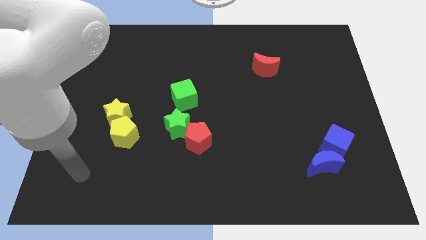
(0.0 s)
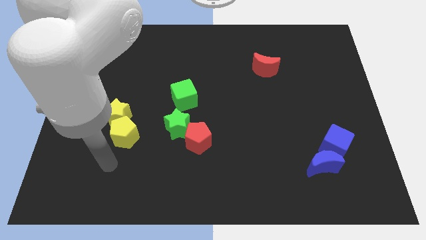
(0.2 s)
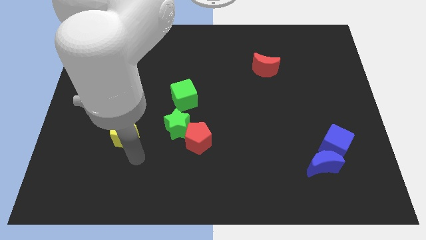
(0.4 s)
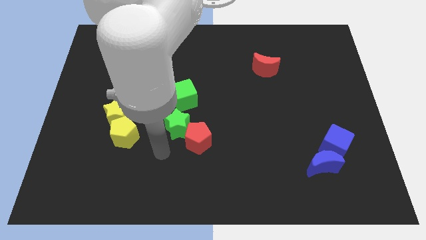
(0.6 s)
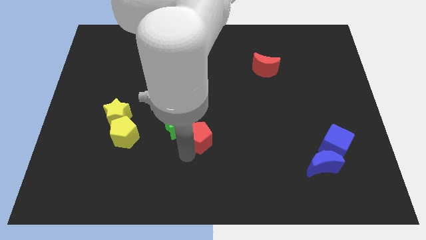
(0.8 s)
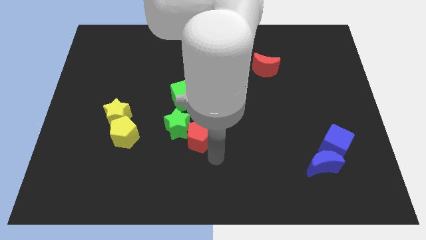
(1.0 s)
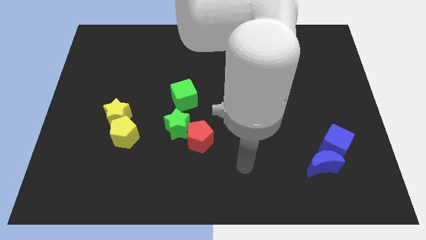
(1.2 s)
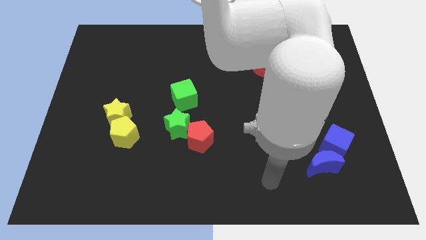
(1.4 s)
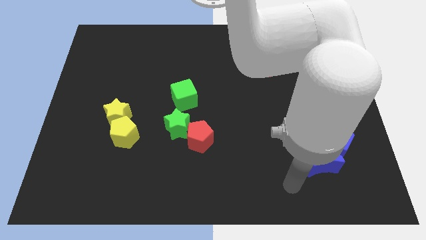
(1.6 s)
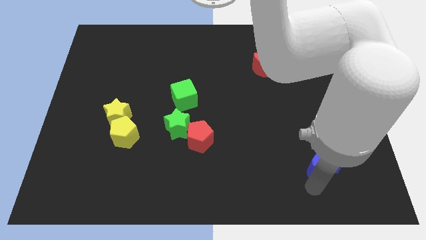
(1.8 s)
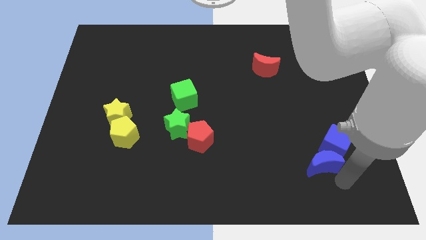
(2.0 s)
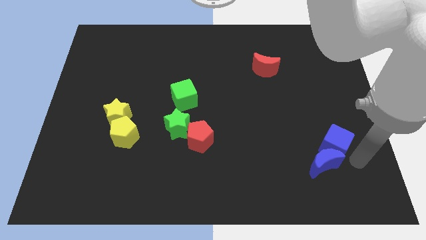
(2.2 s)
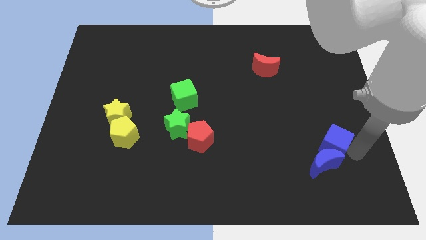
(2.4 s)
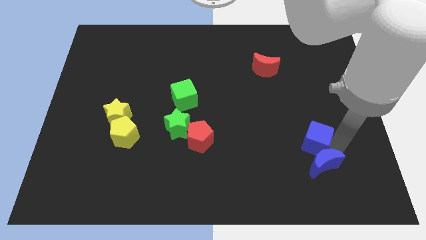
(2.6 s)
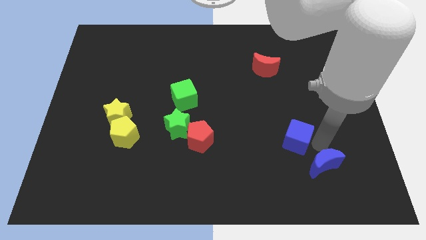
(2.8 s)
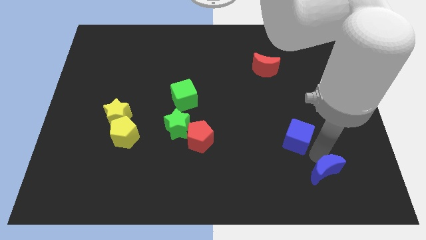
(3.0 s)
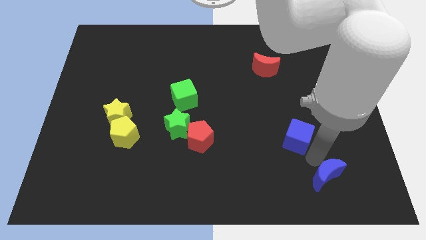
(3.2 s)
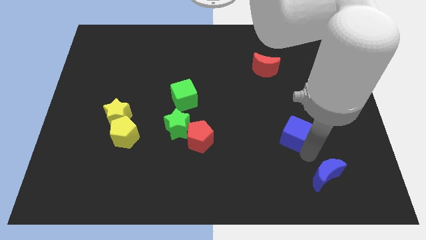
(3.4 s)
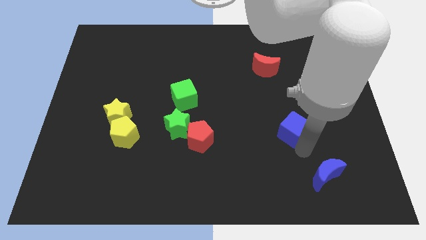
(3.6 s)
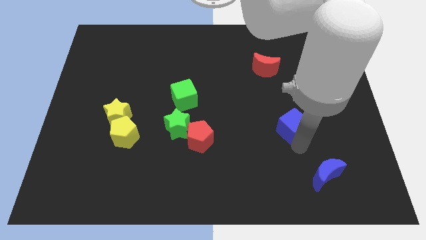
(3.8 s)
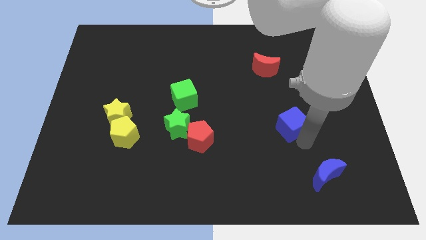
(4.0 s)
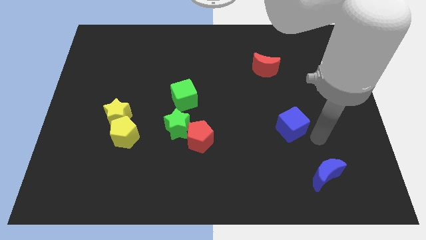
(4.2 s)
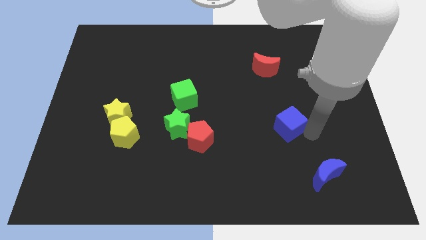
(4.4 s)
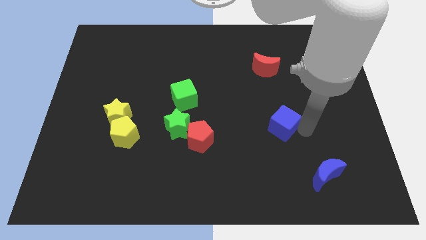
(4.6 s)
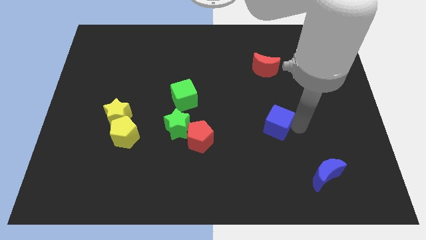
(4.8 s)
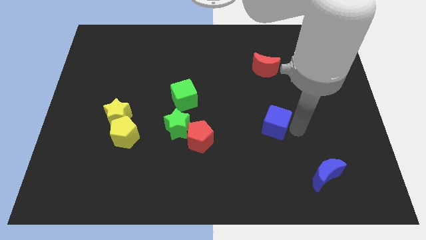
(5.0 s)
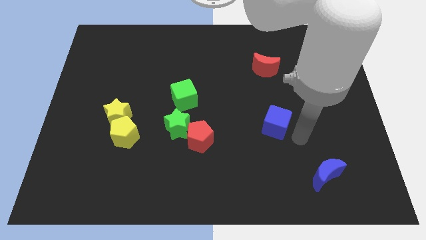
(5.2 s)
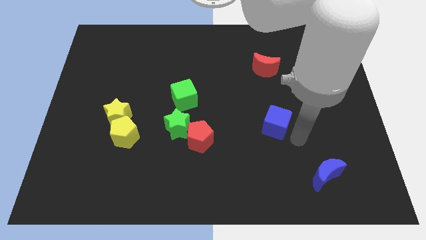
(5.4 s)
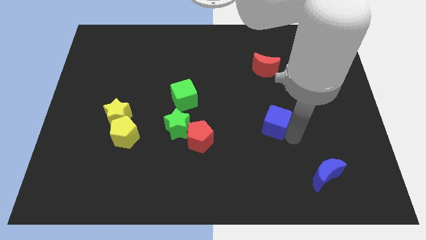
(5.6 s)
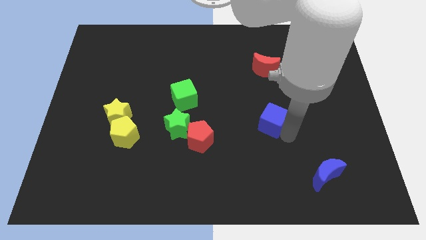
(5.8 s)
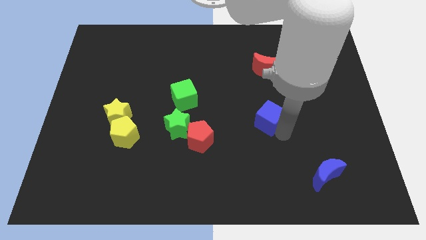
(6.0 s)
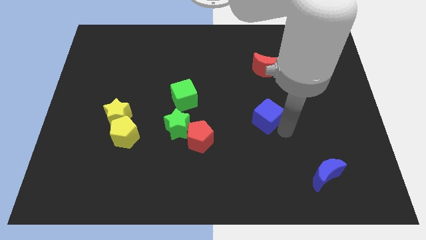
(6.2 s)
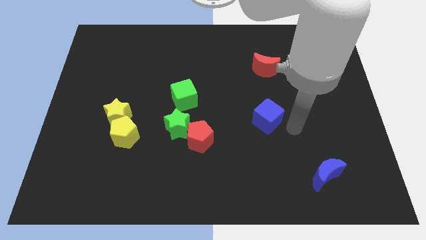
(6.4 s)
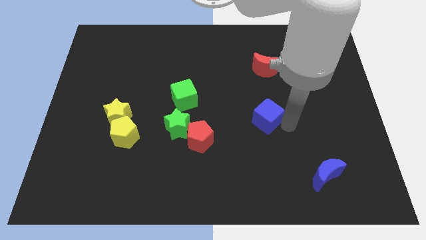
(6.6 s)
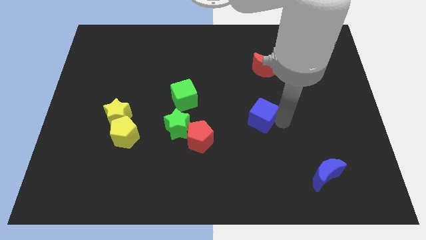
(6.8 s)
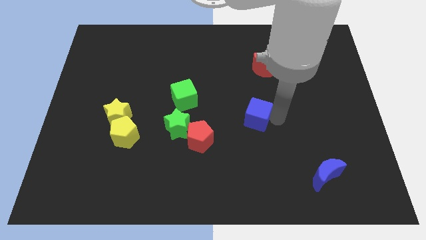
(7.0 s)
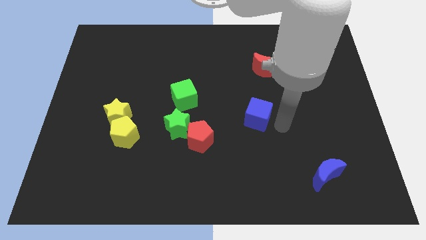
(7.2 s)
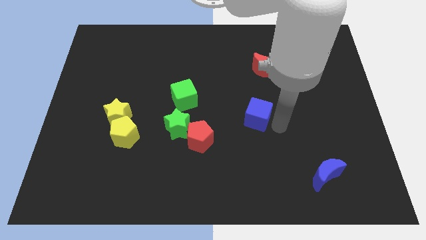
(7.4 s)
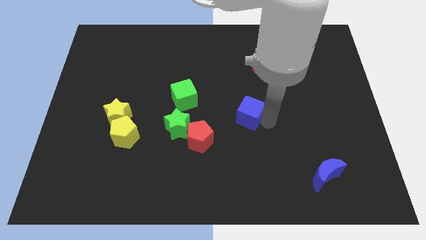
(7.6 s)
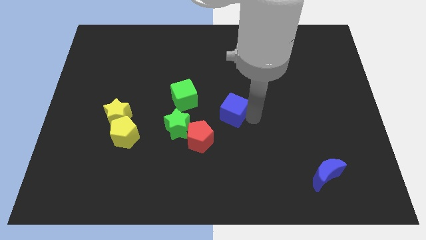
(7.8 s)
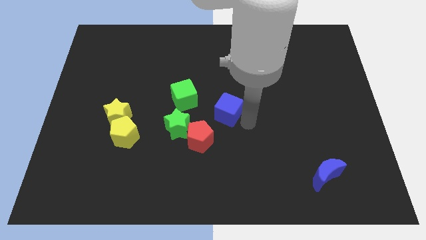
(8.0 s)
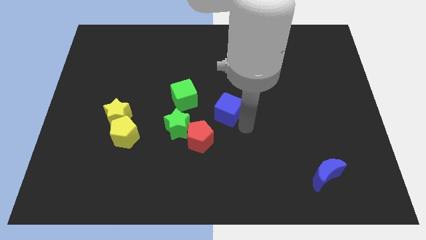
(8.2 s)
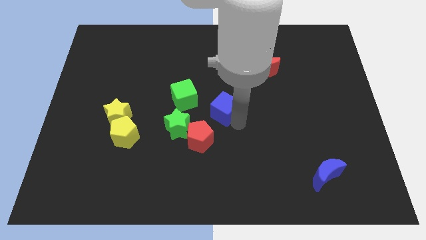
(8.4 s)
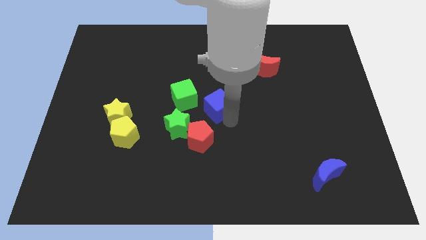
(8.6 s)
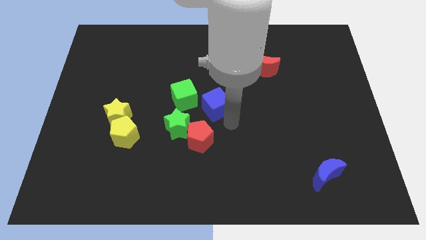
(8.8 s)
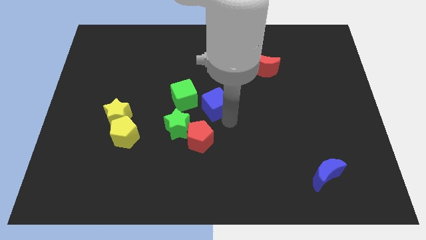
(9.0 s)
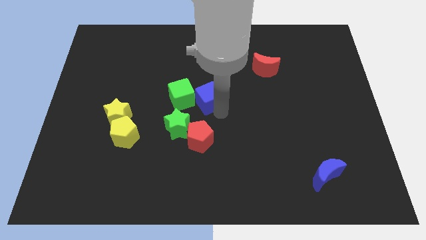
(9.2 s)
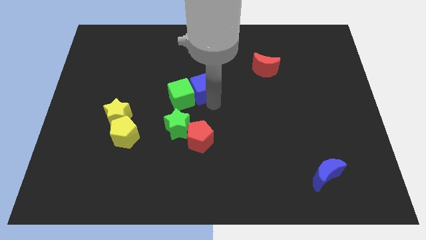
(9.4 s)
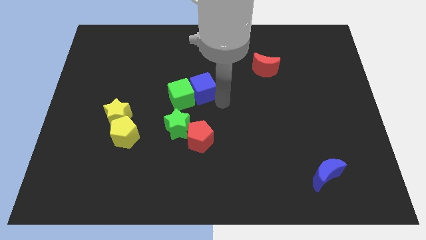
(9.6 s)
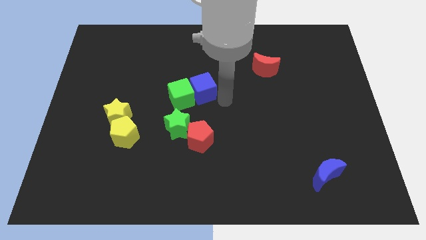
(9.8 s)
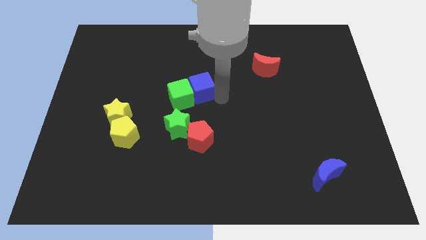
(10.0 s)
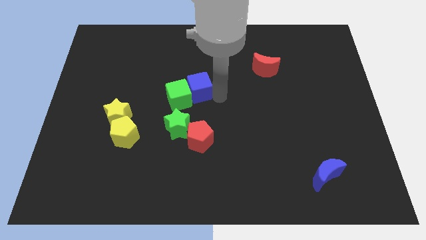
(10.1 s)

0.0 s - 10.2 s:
move the blue cube to the top of the green star

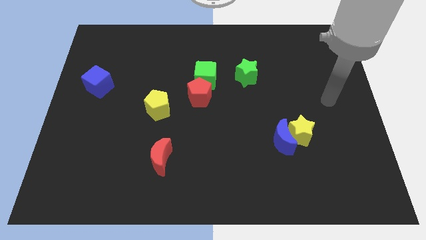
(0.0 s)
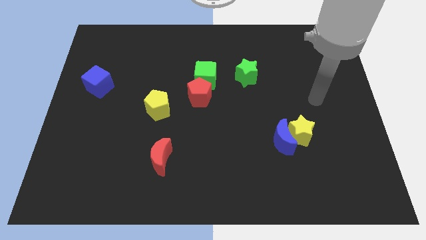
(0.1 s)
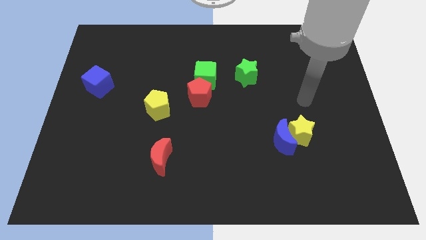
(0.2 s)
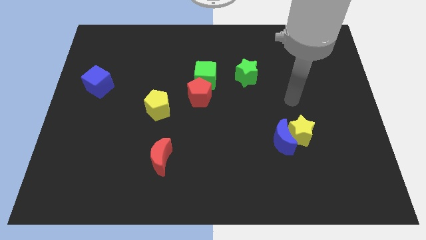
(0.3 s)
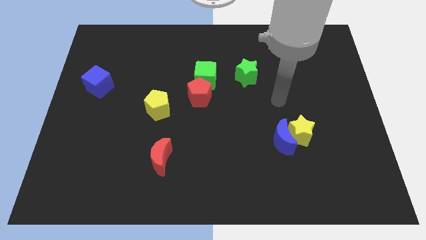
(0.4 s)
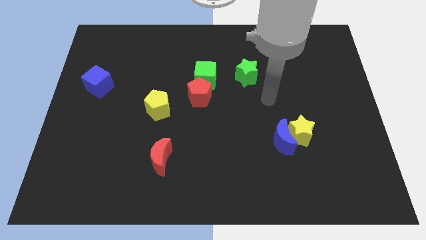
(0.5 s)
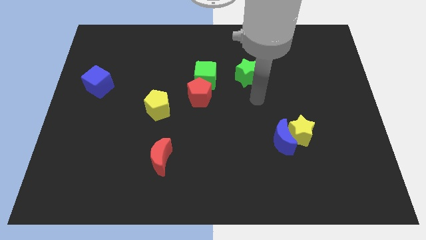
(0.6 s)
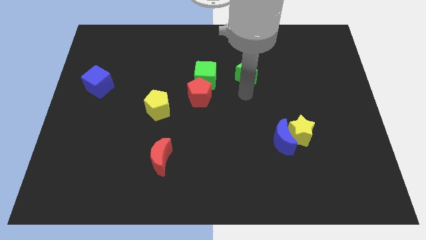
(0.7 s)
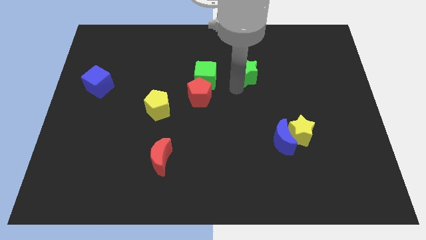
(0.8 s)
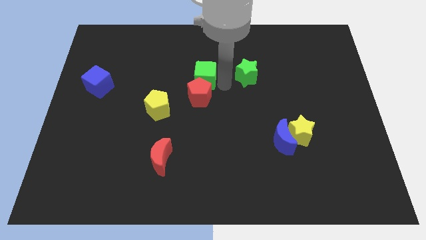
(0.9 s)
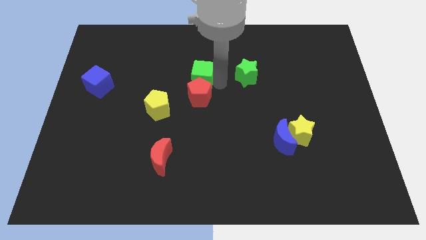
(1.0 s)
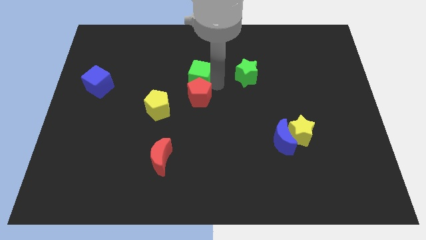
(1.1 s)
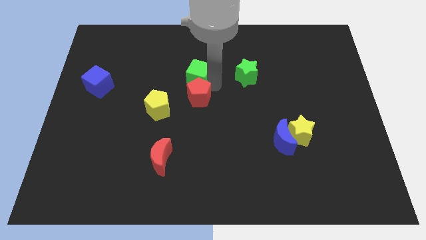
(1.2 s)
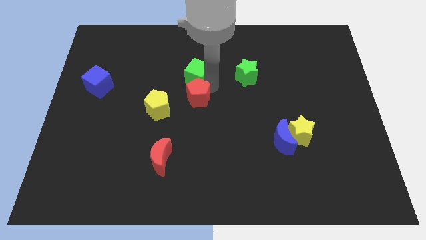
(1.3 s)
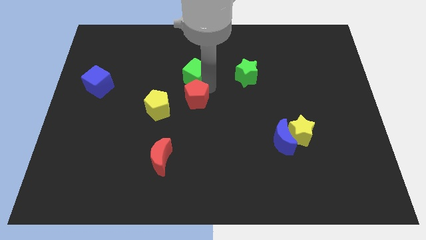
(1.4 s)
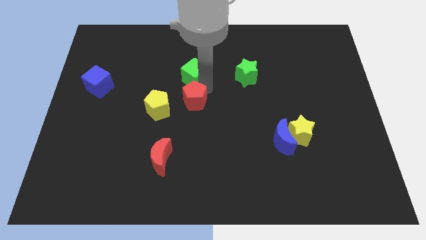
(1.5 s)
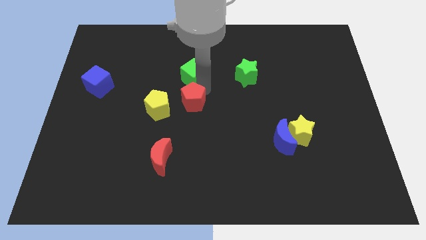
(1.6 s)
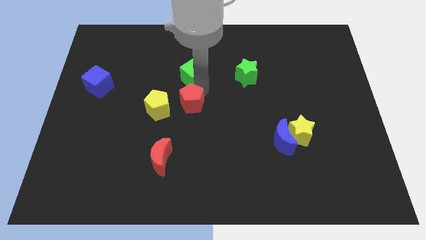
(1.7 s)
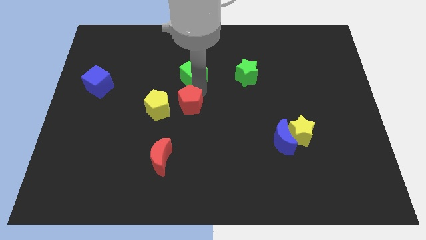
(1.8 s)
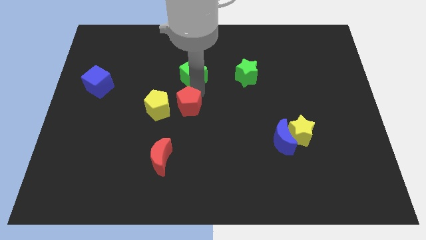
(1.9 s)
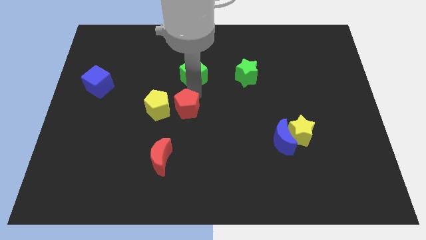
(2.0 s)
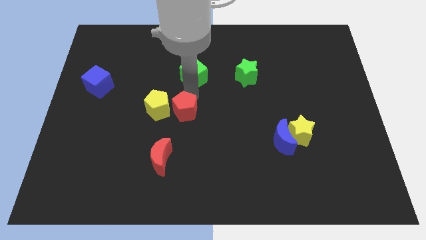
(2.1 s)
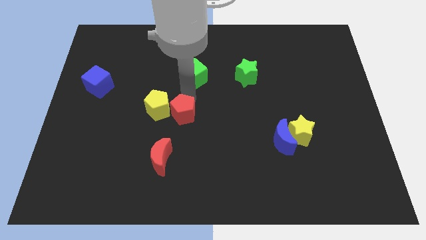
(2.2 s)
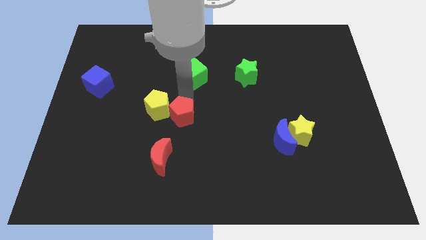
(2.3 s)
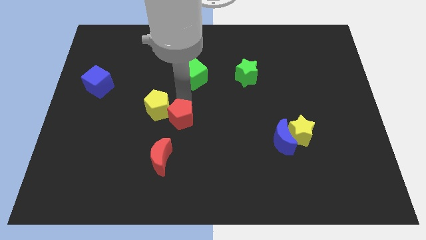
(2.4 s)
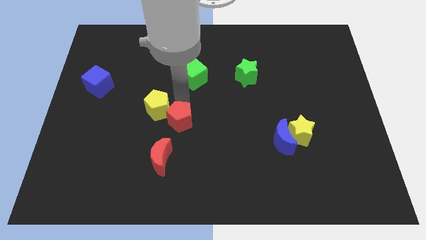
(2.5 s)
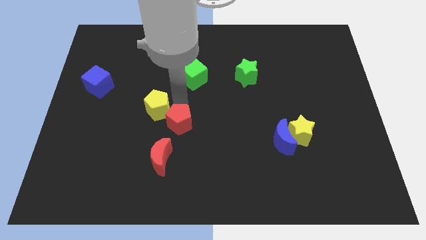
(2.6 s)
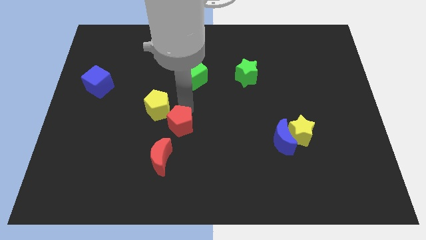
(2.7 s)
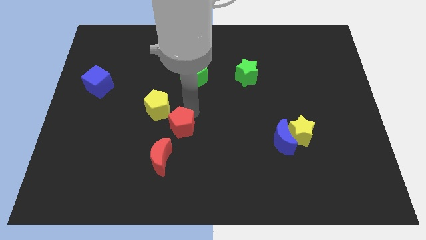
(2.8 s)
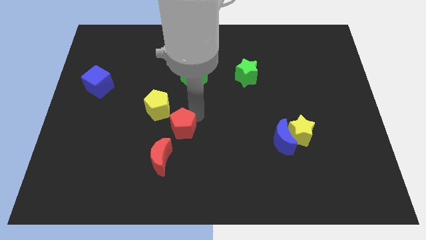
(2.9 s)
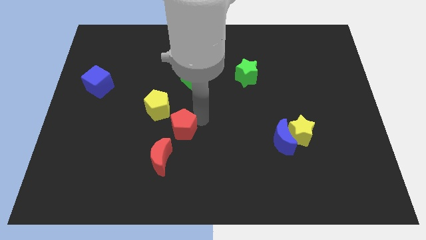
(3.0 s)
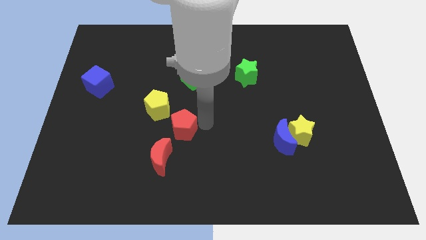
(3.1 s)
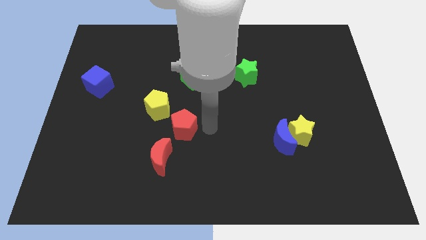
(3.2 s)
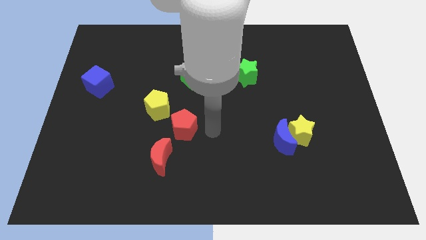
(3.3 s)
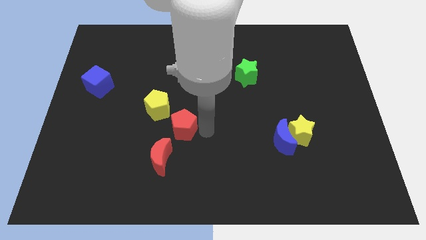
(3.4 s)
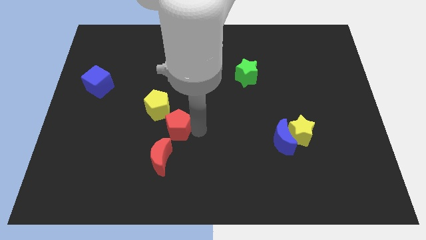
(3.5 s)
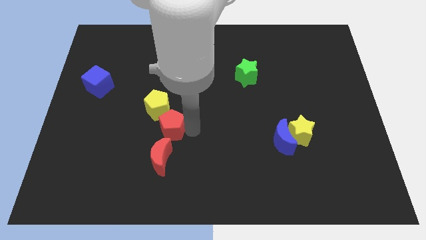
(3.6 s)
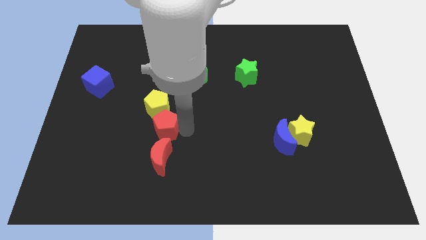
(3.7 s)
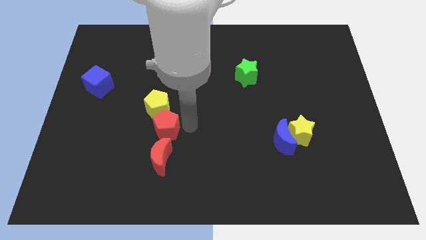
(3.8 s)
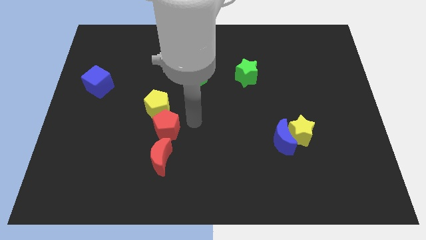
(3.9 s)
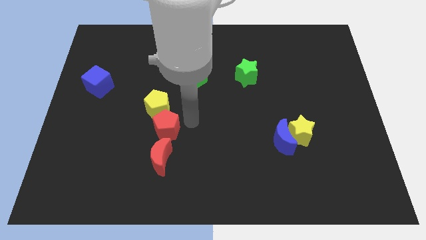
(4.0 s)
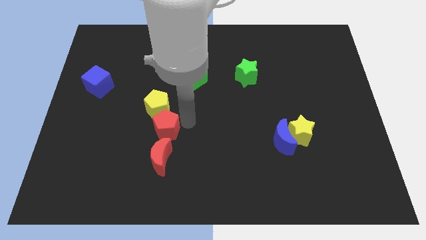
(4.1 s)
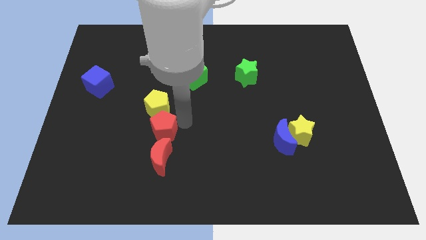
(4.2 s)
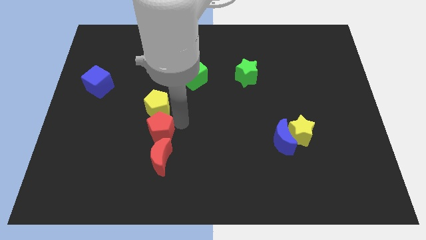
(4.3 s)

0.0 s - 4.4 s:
put the red pentagon to the top left of the red moon
